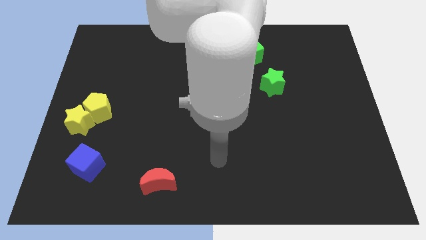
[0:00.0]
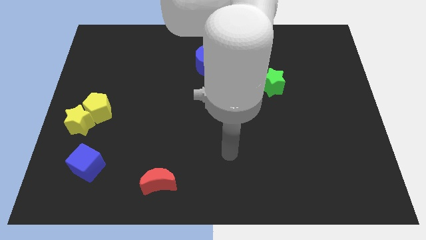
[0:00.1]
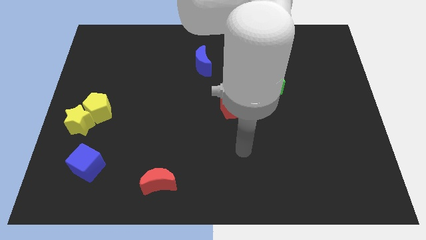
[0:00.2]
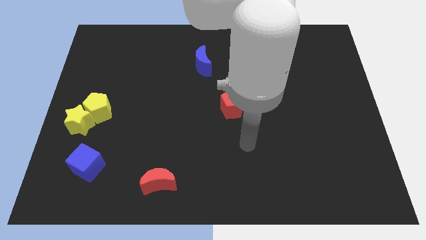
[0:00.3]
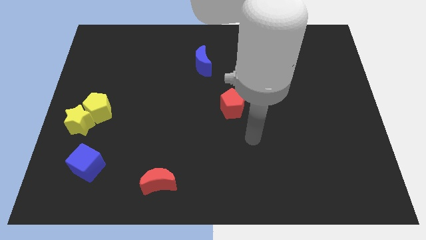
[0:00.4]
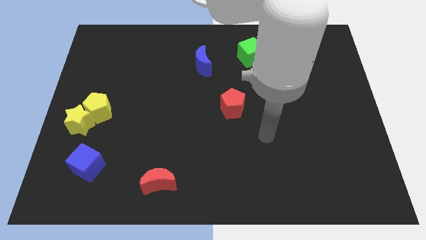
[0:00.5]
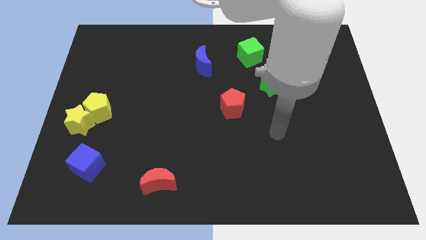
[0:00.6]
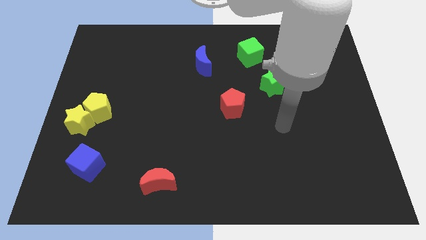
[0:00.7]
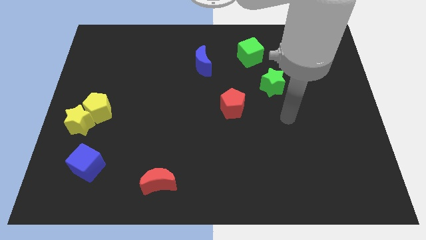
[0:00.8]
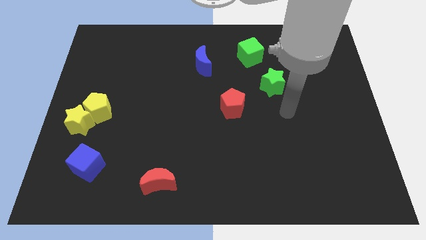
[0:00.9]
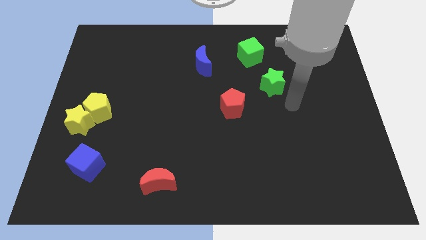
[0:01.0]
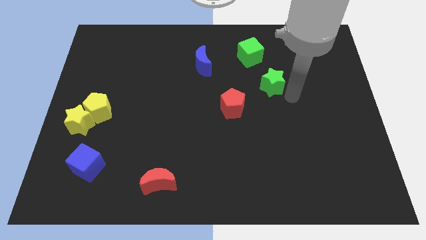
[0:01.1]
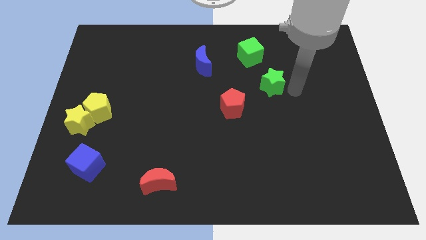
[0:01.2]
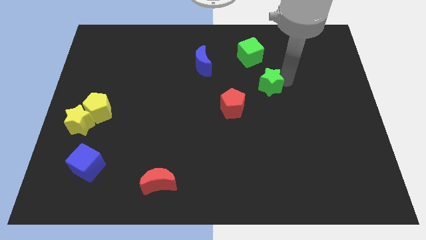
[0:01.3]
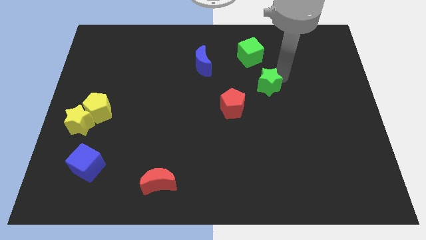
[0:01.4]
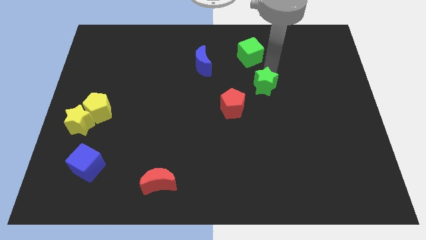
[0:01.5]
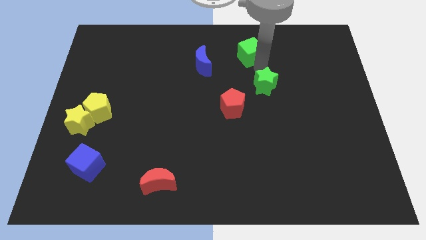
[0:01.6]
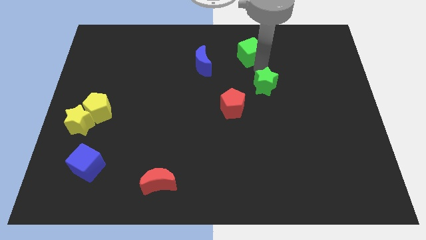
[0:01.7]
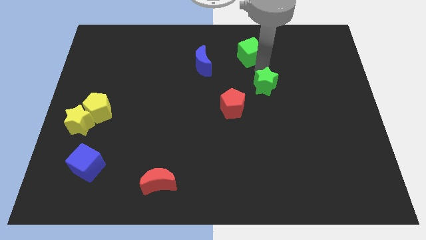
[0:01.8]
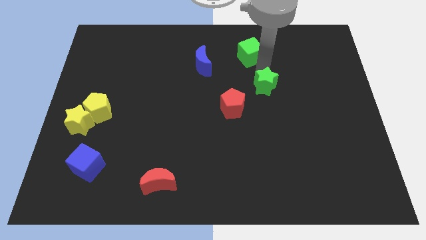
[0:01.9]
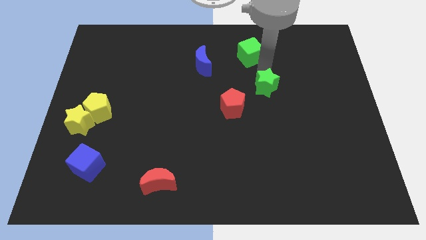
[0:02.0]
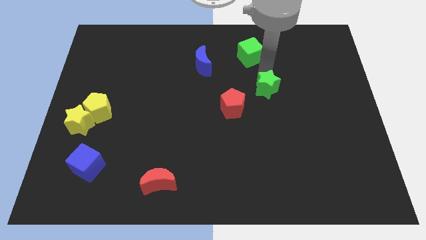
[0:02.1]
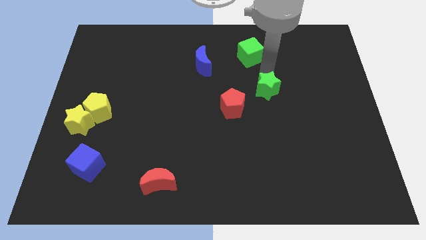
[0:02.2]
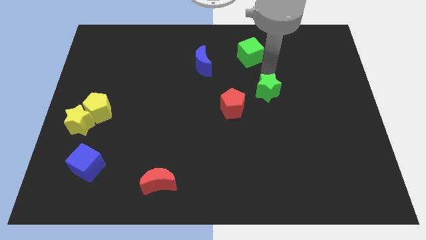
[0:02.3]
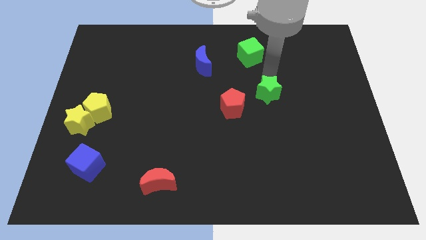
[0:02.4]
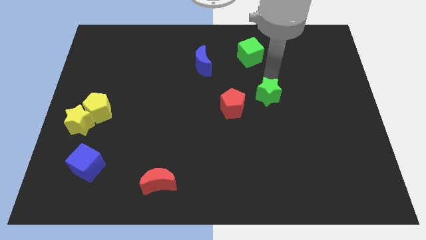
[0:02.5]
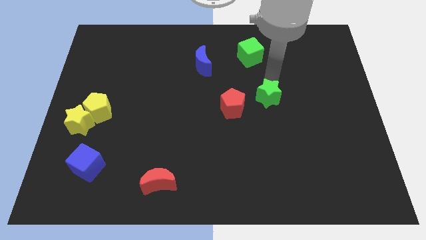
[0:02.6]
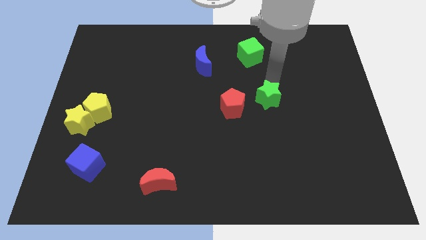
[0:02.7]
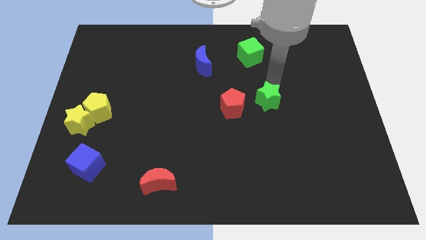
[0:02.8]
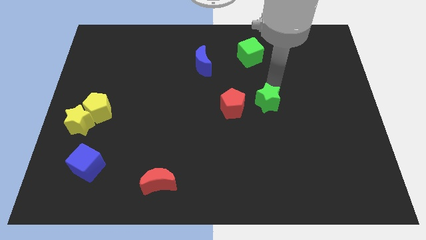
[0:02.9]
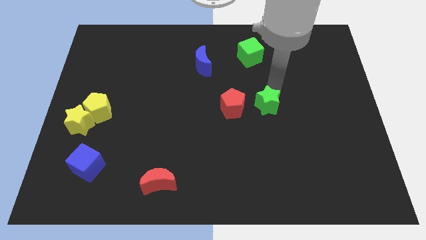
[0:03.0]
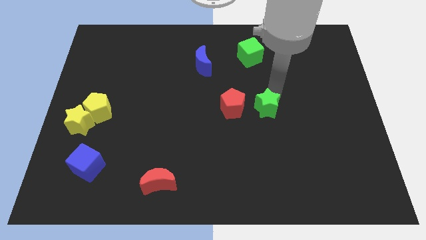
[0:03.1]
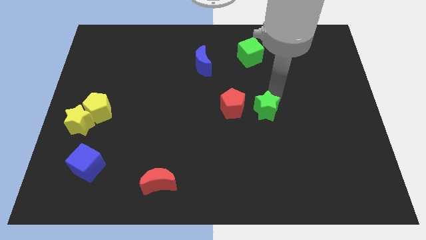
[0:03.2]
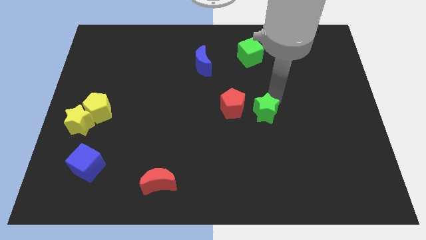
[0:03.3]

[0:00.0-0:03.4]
move the green star downwards and left diagonally a little

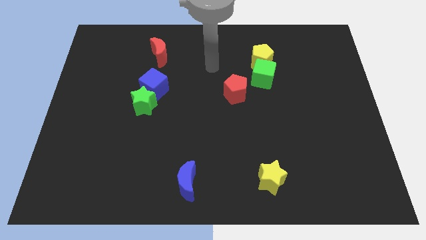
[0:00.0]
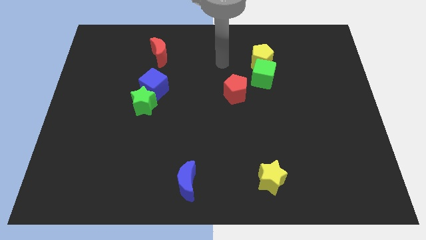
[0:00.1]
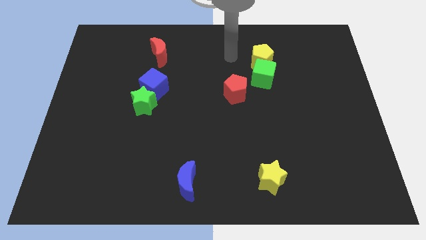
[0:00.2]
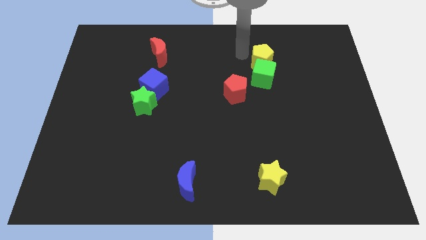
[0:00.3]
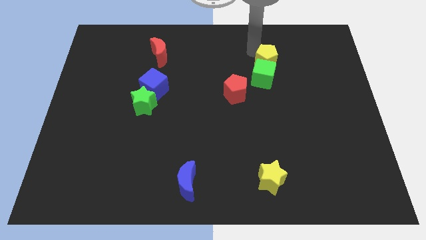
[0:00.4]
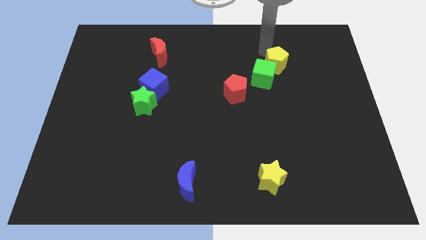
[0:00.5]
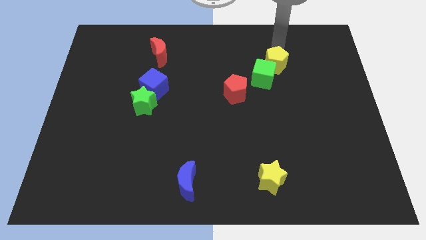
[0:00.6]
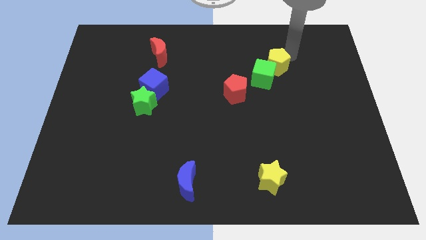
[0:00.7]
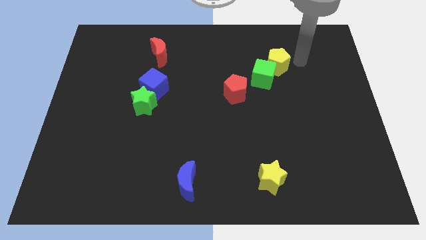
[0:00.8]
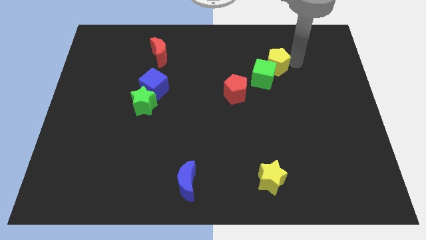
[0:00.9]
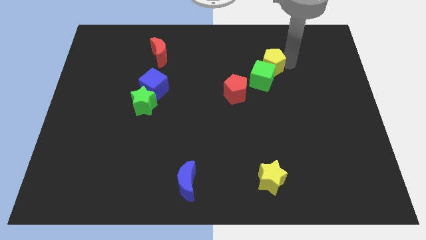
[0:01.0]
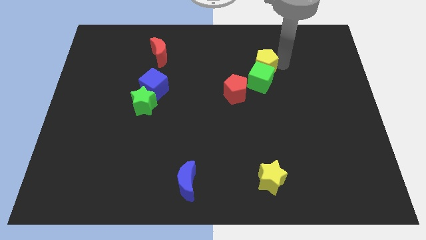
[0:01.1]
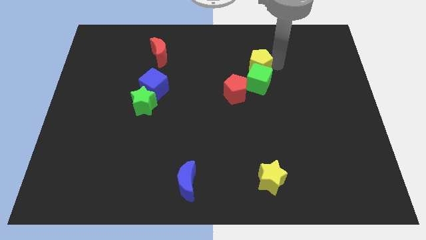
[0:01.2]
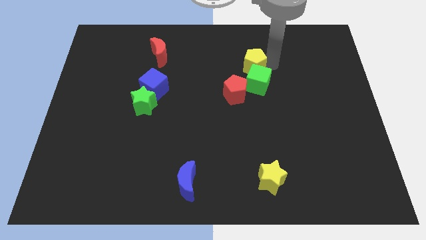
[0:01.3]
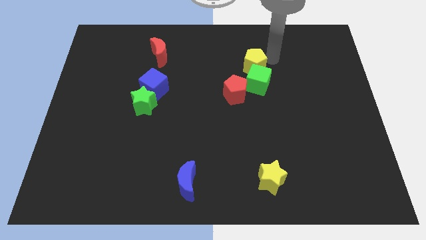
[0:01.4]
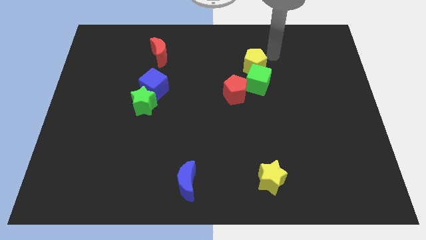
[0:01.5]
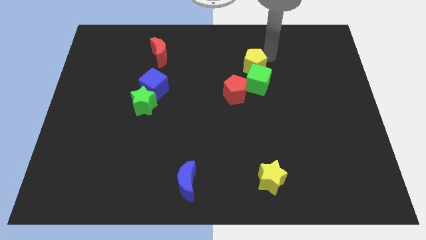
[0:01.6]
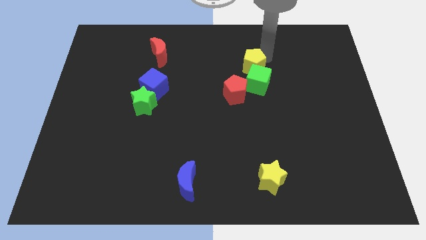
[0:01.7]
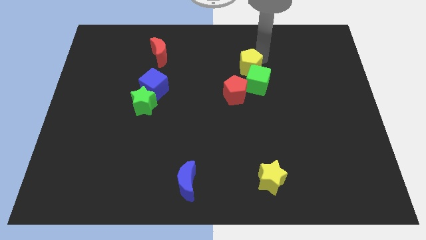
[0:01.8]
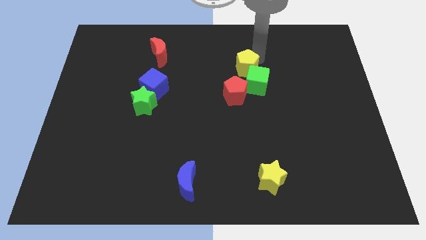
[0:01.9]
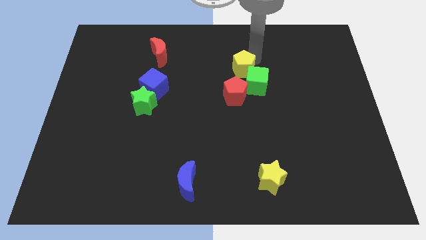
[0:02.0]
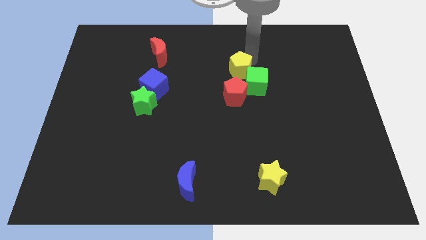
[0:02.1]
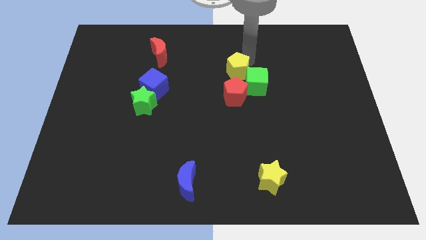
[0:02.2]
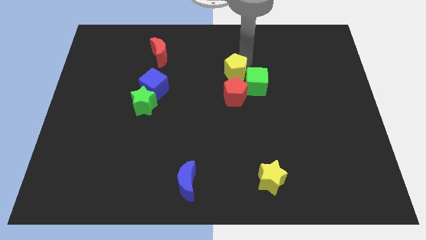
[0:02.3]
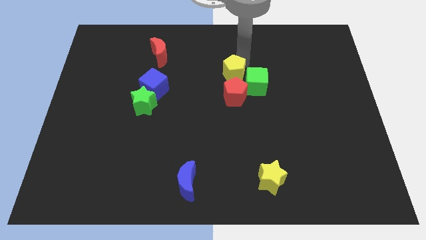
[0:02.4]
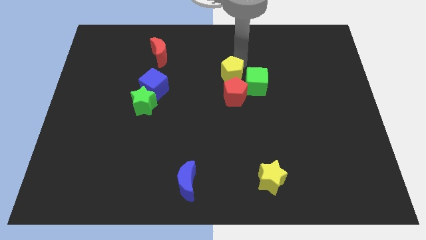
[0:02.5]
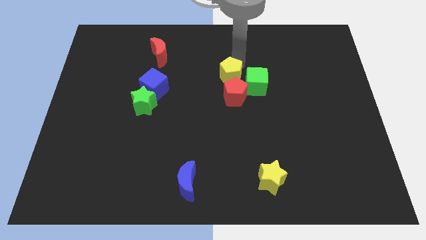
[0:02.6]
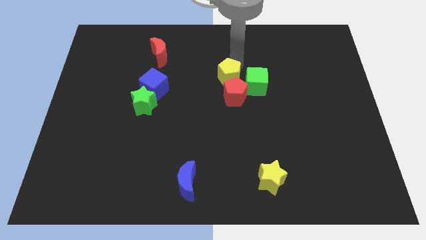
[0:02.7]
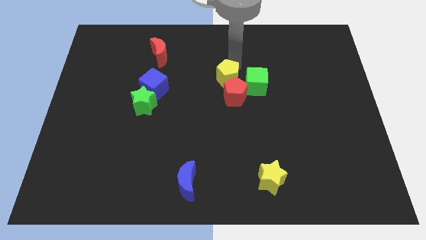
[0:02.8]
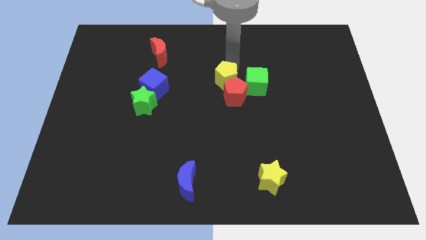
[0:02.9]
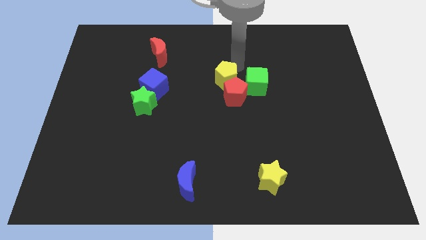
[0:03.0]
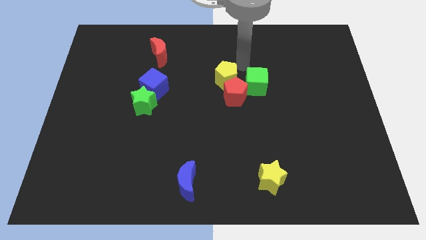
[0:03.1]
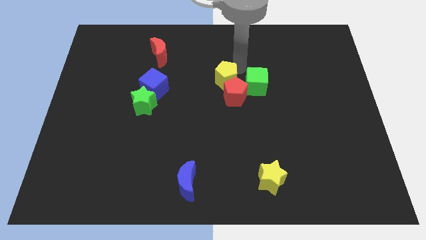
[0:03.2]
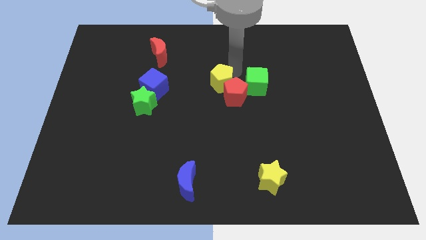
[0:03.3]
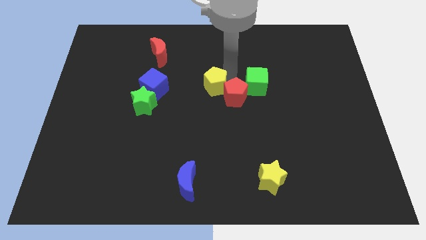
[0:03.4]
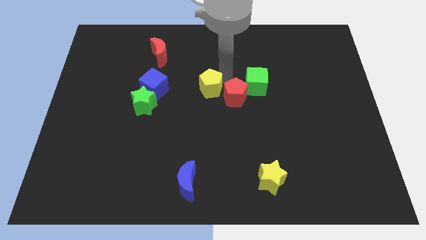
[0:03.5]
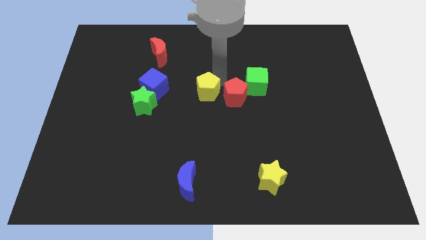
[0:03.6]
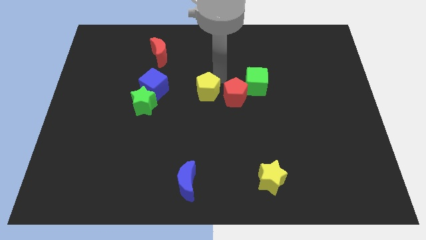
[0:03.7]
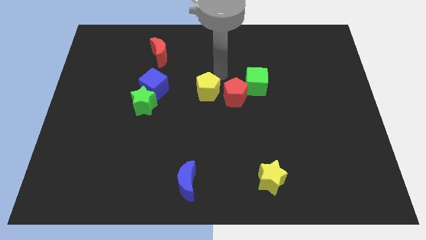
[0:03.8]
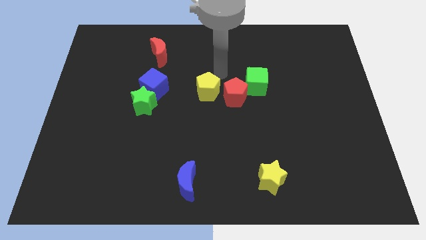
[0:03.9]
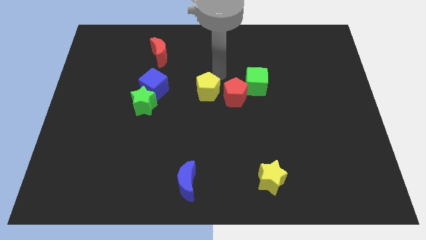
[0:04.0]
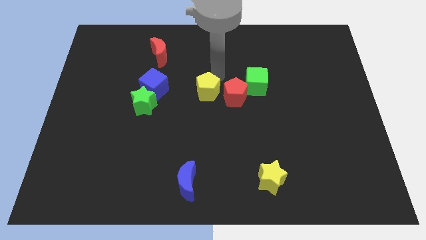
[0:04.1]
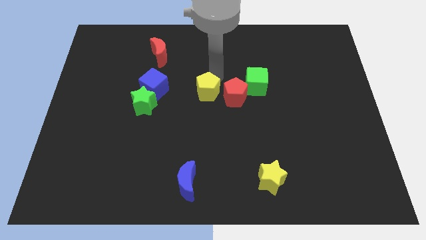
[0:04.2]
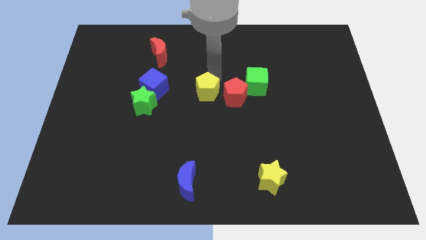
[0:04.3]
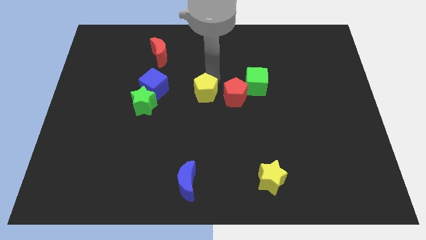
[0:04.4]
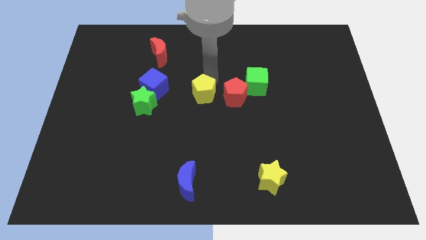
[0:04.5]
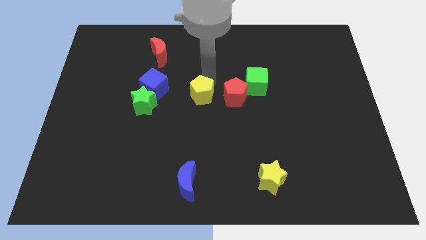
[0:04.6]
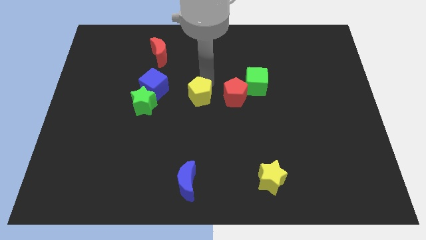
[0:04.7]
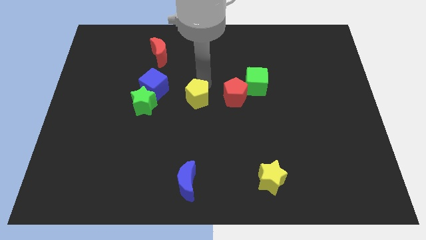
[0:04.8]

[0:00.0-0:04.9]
push the yellow pentagon downwards and left
